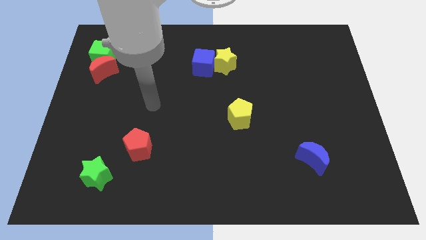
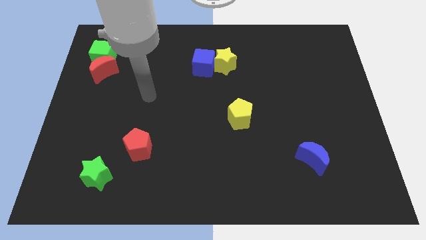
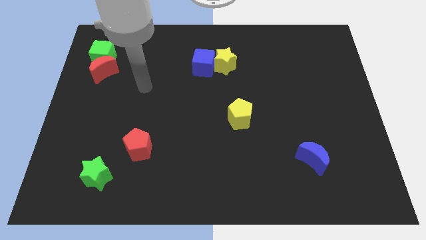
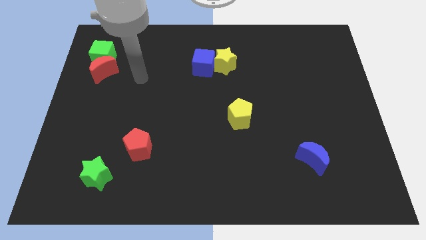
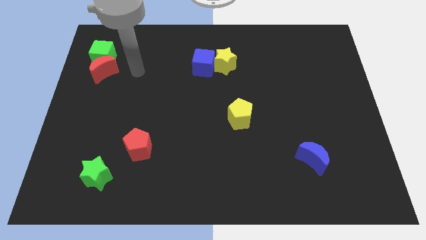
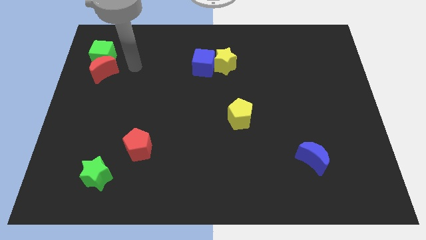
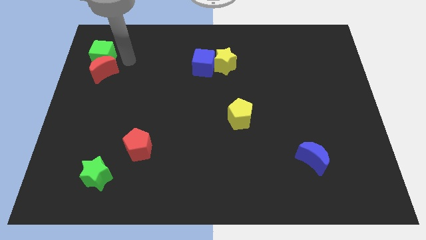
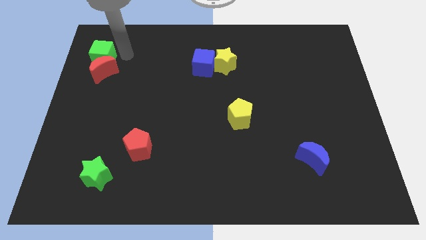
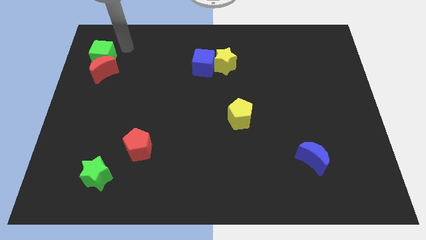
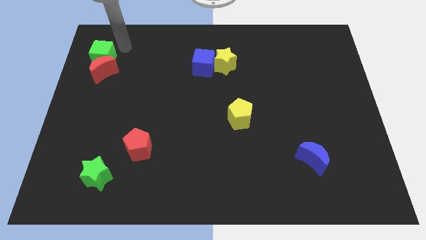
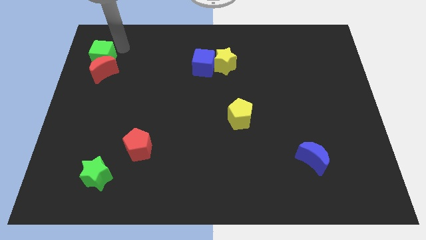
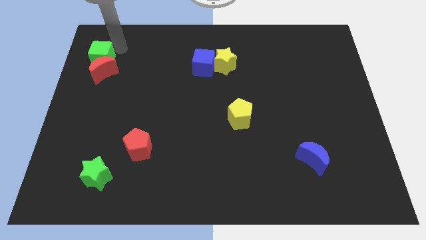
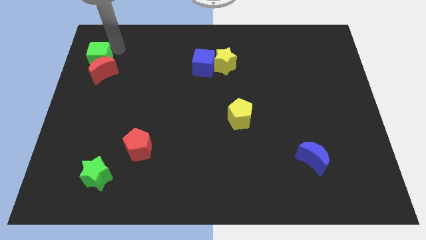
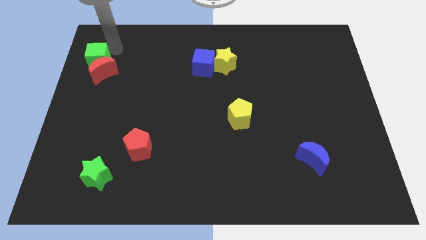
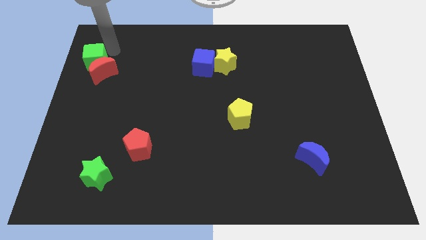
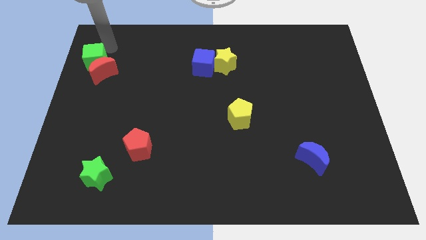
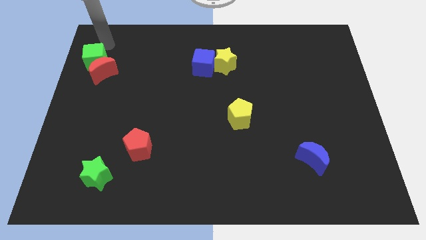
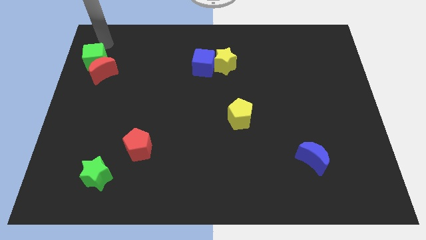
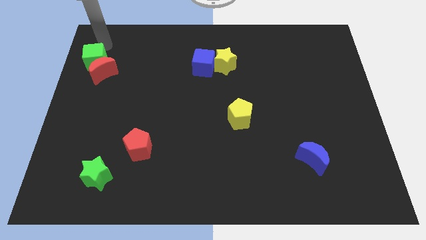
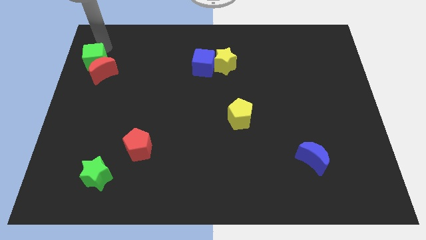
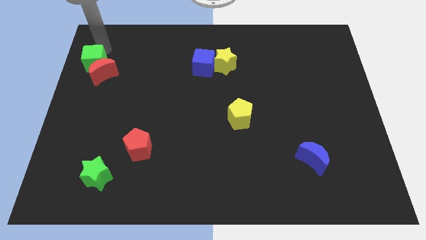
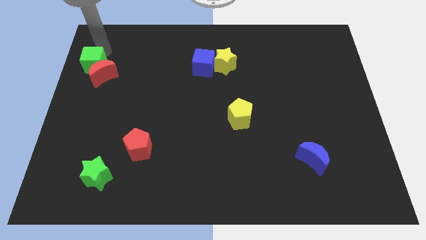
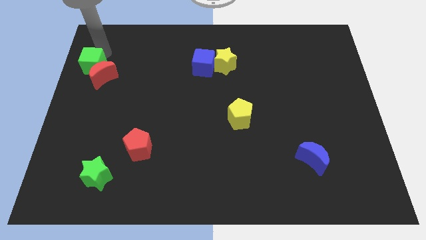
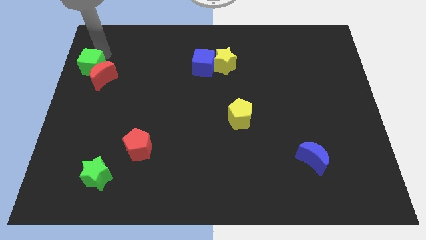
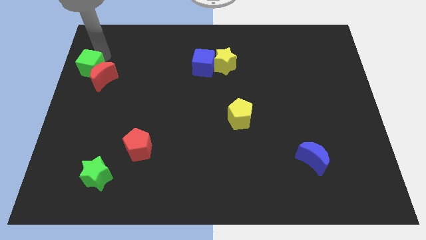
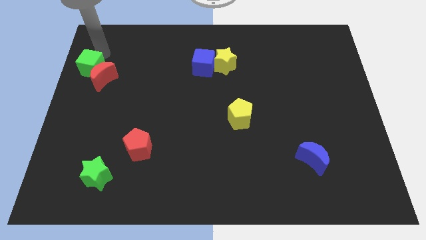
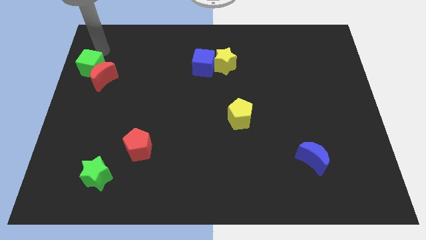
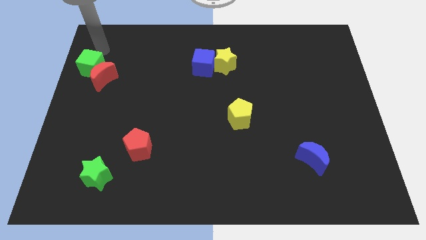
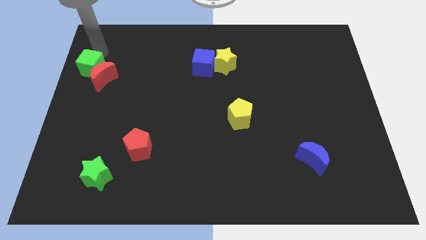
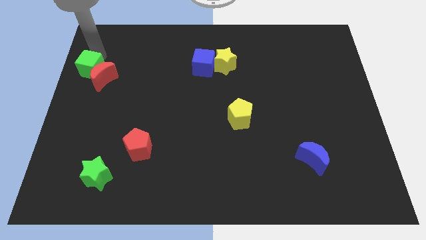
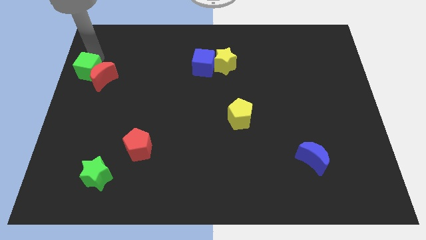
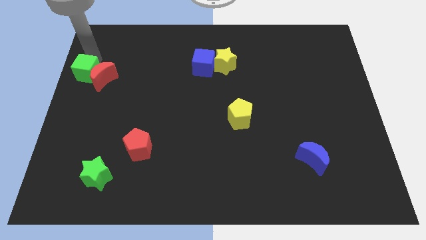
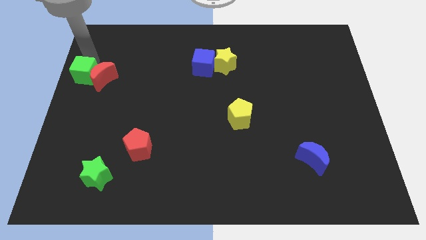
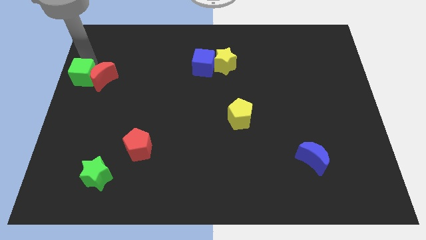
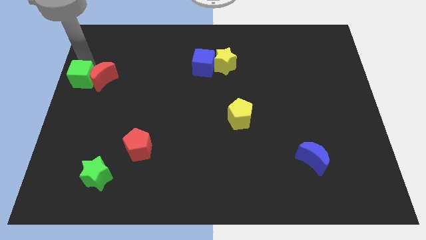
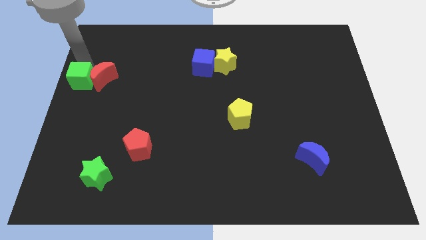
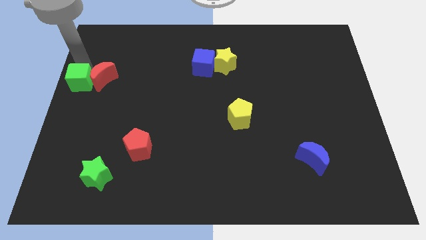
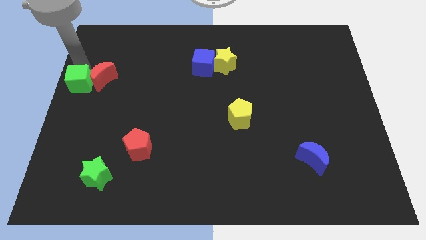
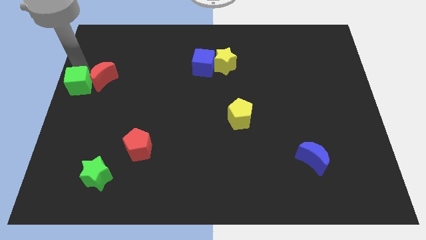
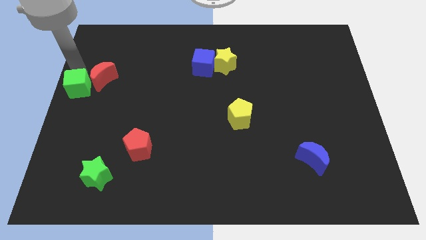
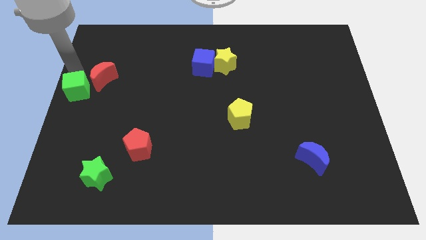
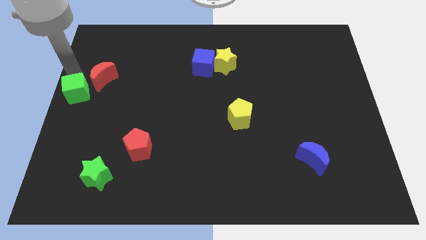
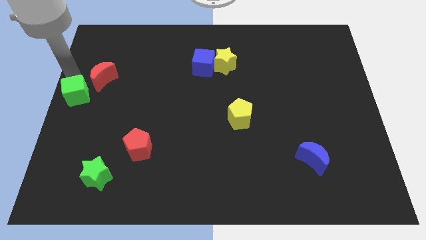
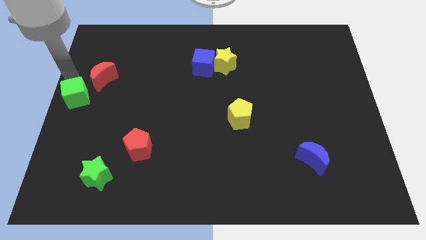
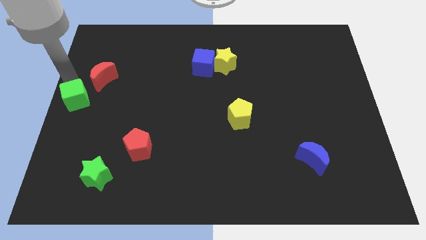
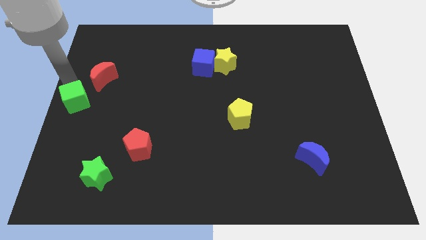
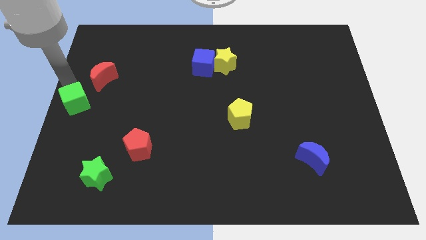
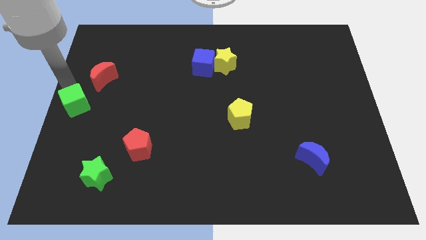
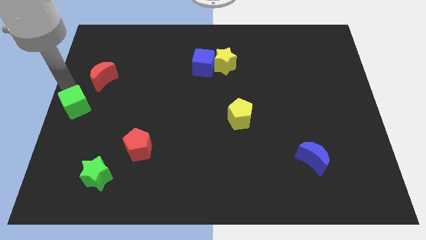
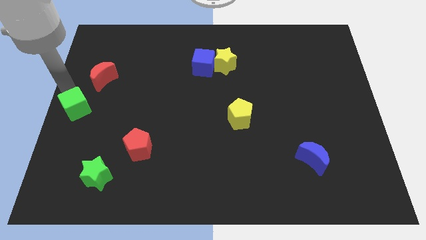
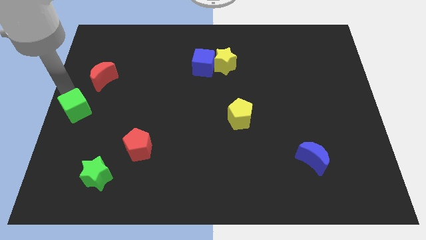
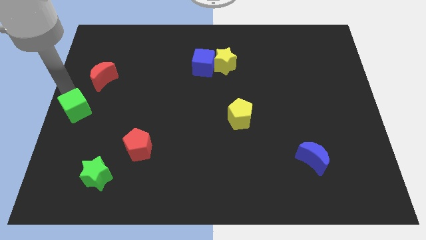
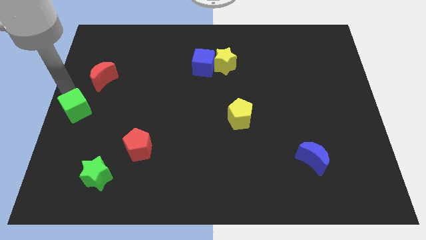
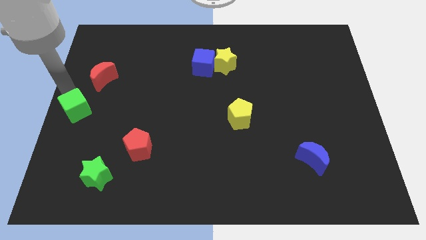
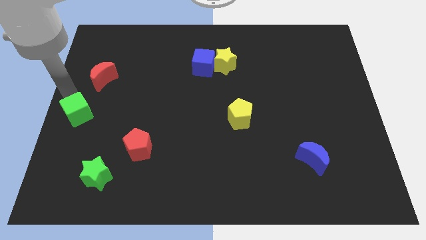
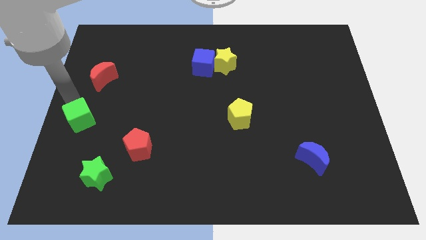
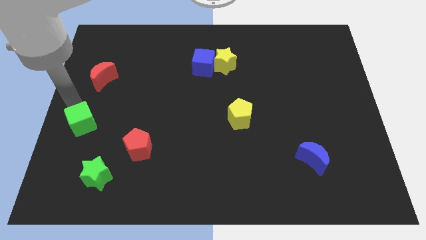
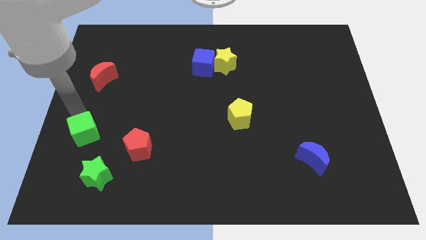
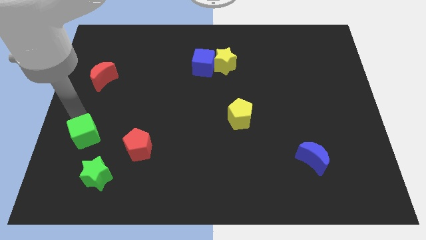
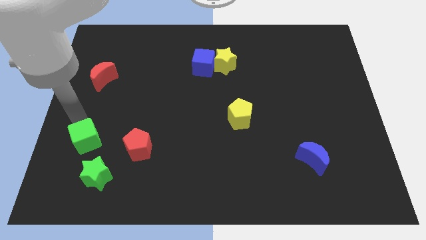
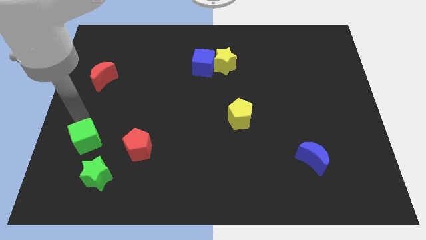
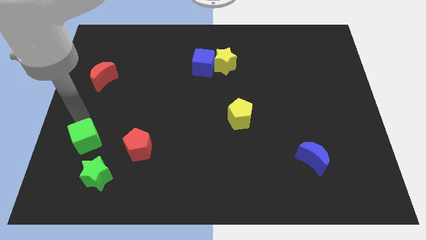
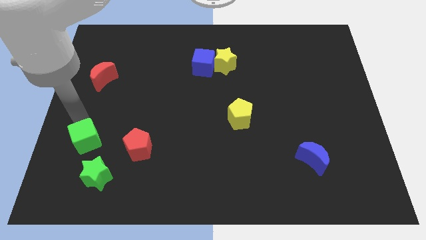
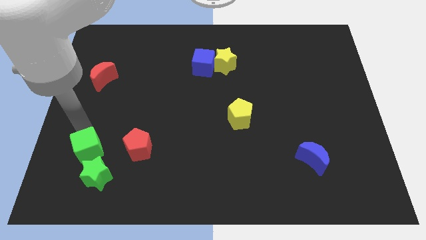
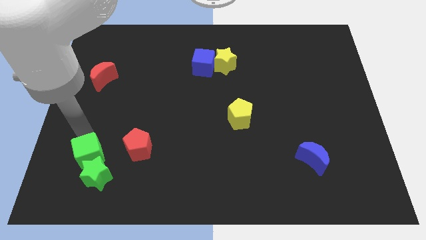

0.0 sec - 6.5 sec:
put the green cube next to the green star

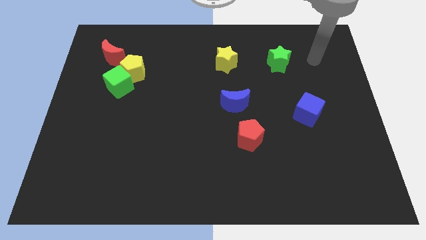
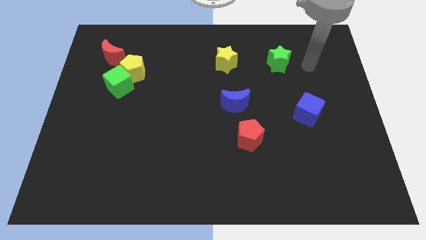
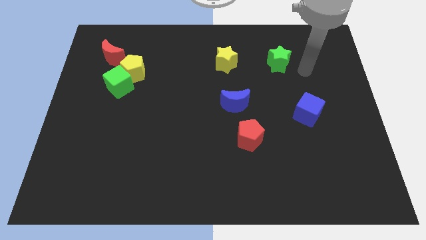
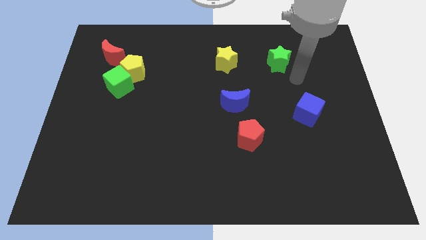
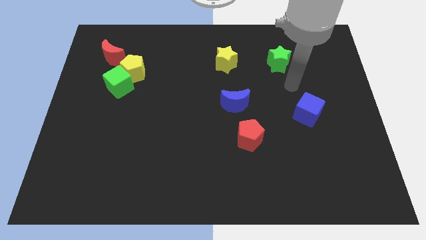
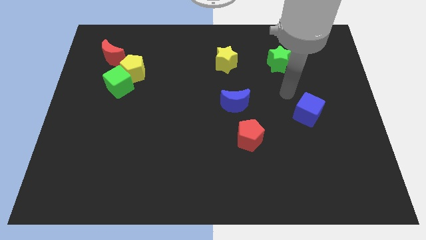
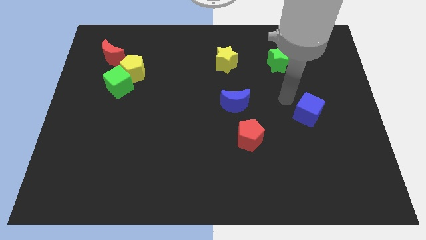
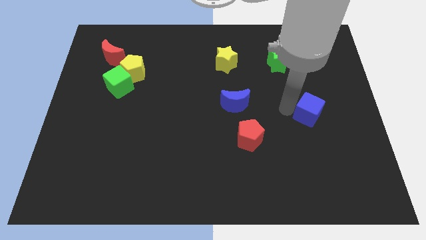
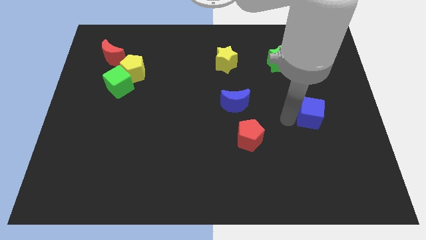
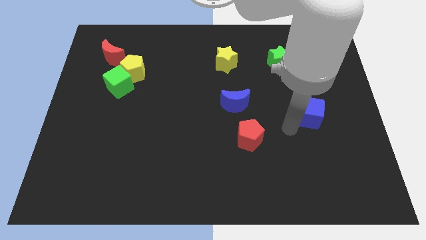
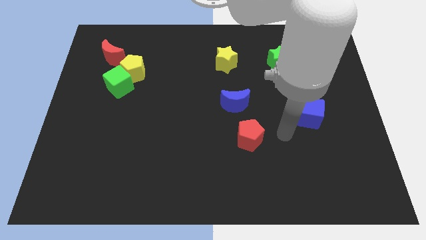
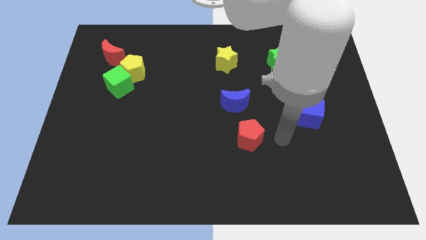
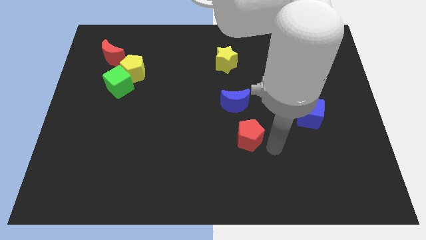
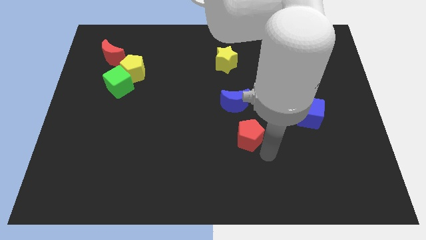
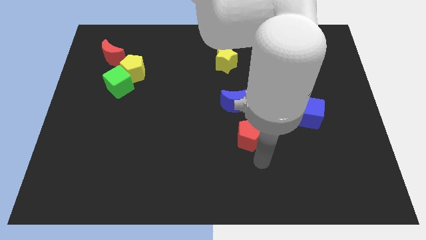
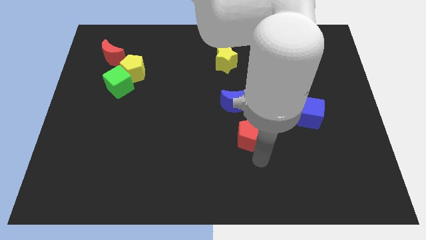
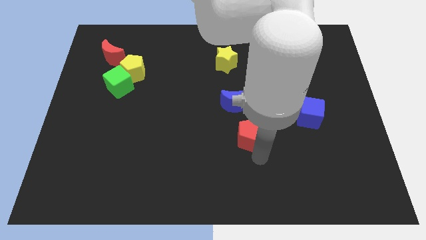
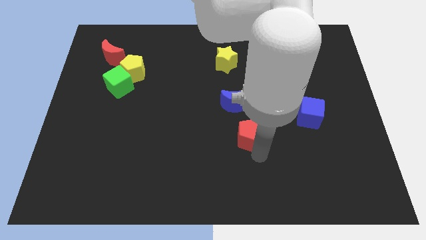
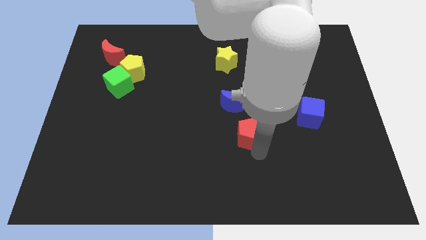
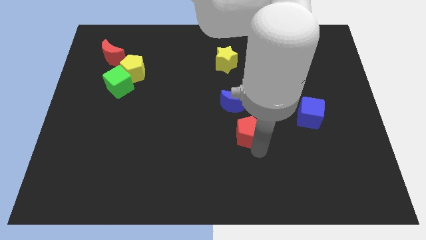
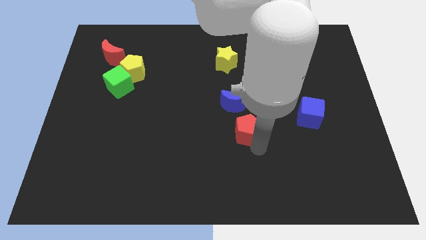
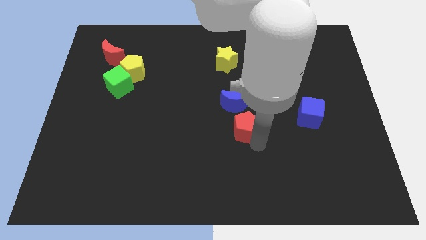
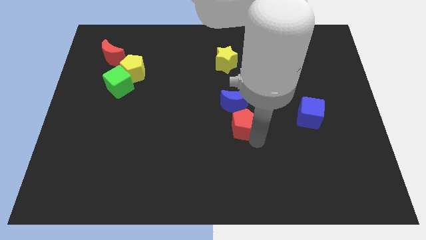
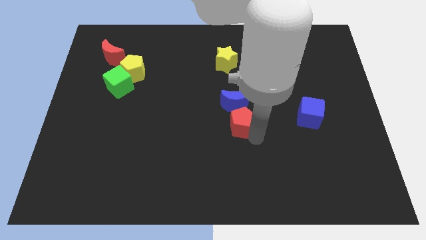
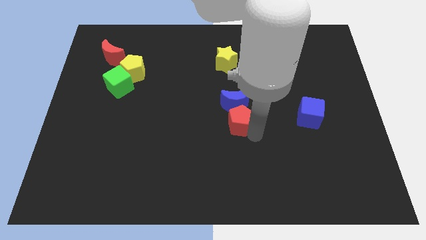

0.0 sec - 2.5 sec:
slide the red pentagon to the blue moon
